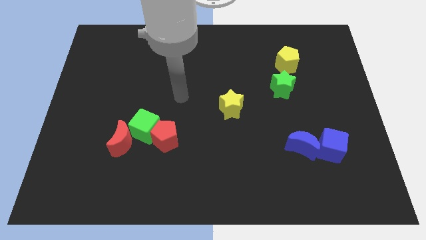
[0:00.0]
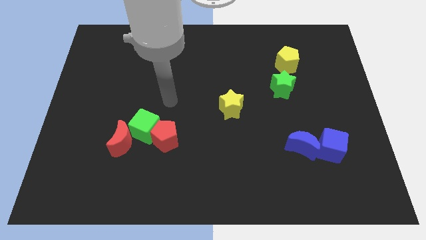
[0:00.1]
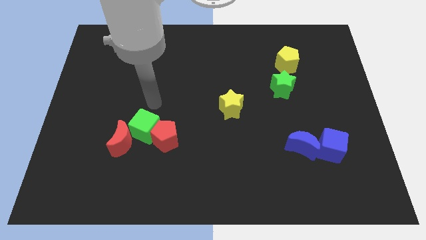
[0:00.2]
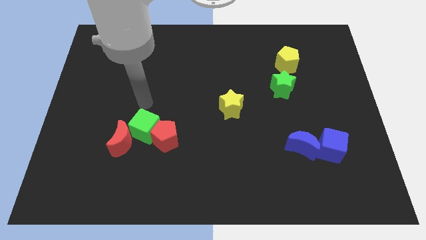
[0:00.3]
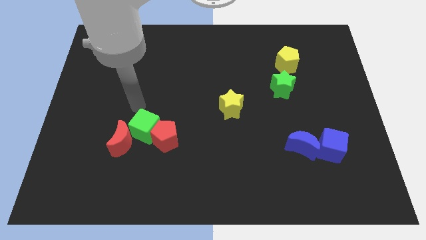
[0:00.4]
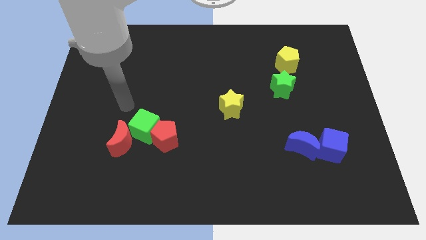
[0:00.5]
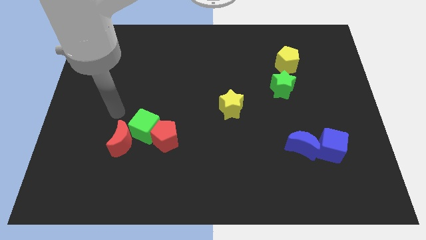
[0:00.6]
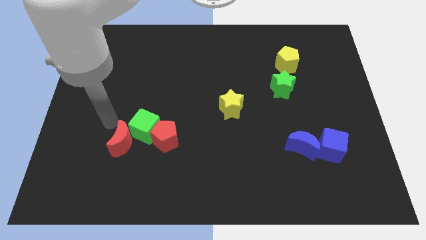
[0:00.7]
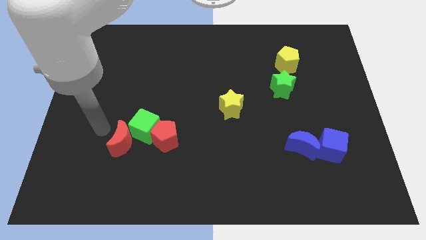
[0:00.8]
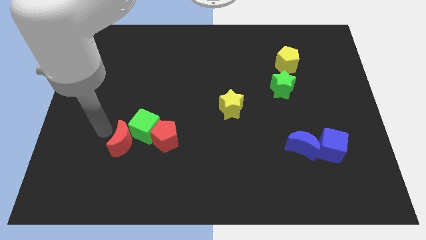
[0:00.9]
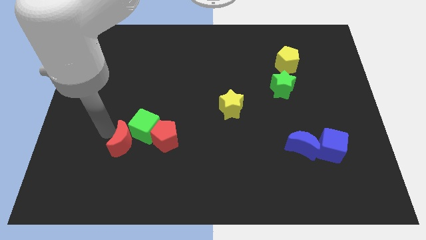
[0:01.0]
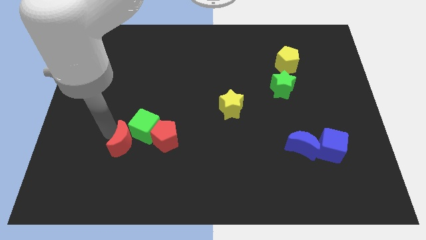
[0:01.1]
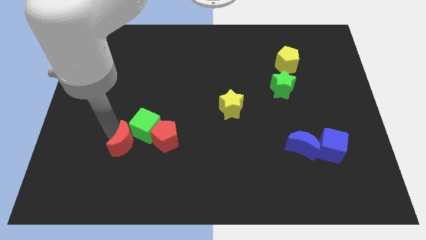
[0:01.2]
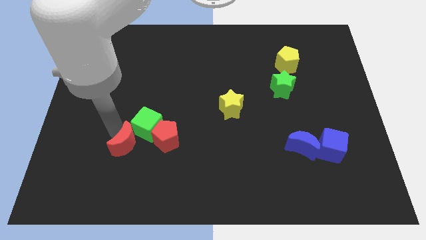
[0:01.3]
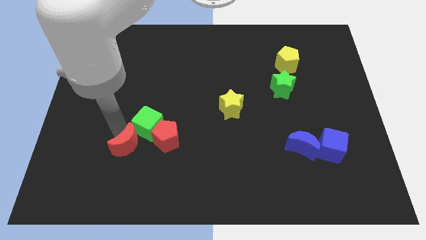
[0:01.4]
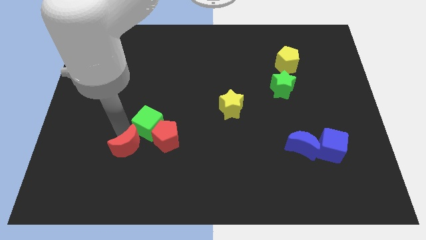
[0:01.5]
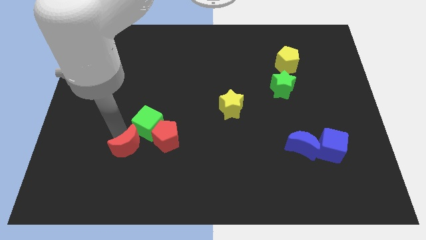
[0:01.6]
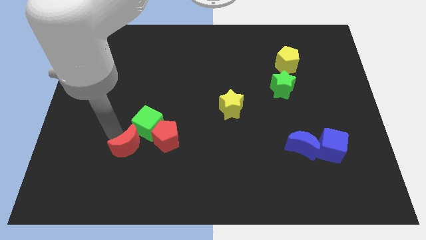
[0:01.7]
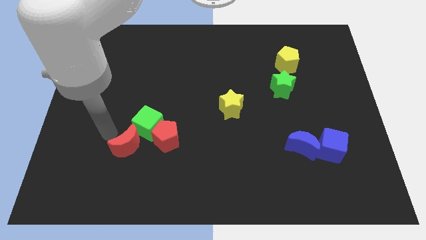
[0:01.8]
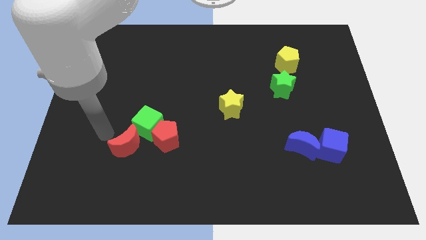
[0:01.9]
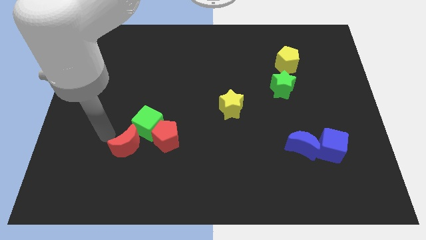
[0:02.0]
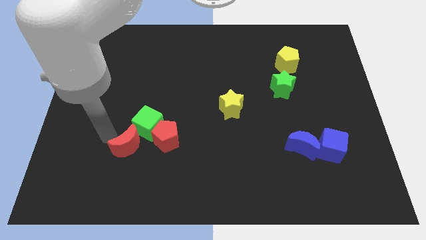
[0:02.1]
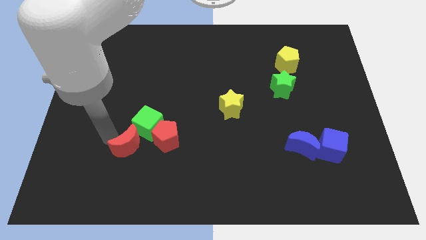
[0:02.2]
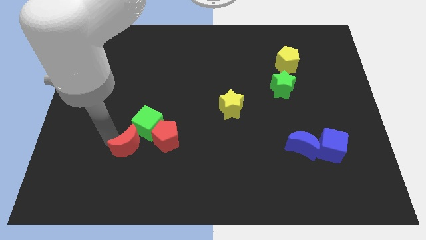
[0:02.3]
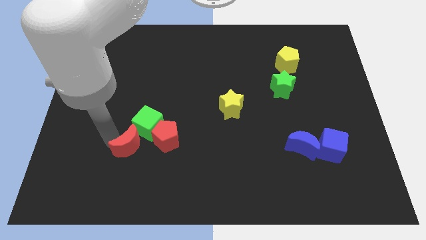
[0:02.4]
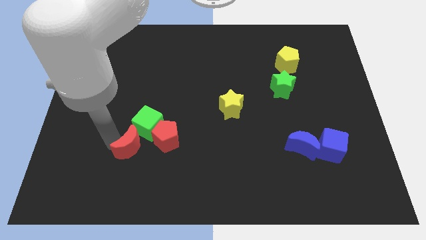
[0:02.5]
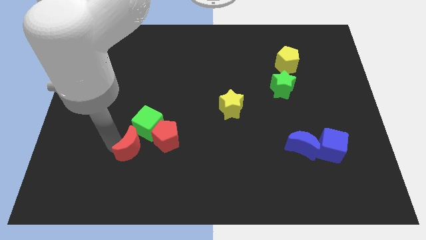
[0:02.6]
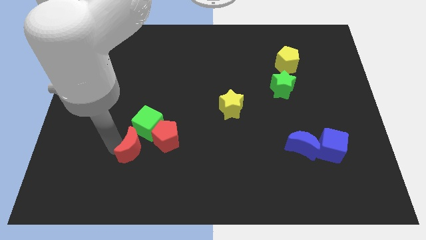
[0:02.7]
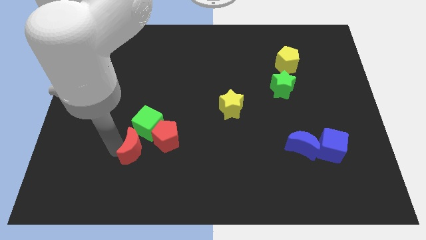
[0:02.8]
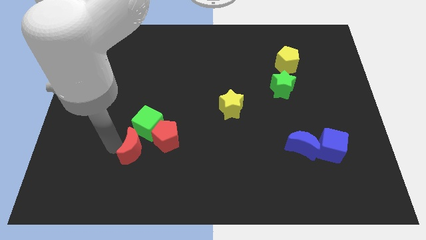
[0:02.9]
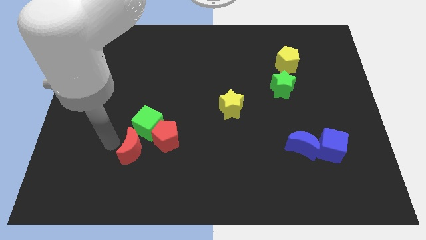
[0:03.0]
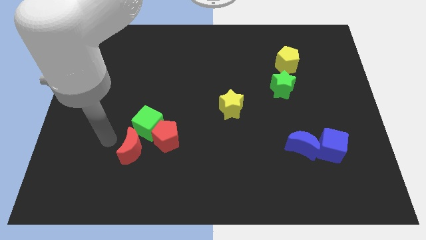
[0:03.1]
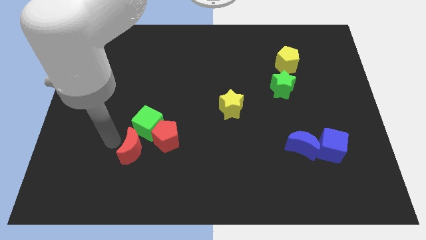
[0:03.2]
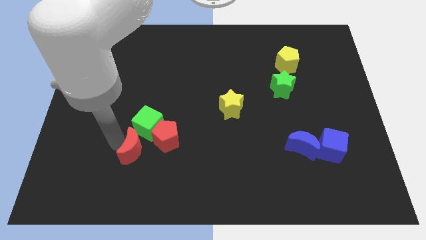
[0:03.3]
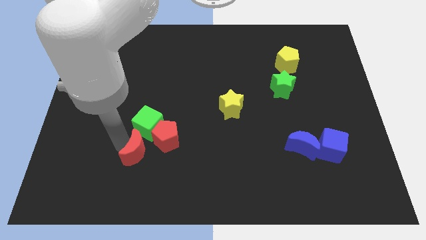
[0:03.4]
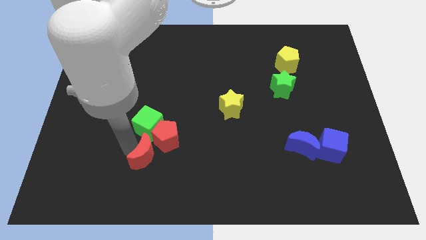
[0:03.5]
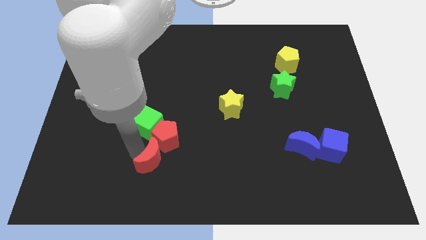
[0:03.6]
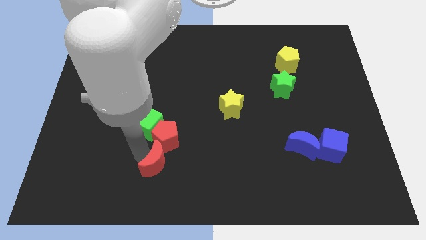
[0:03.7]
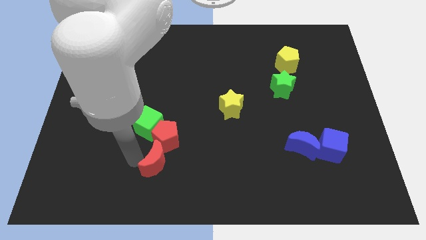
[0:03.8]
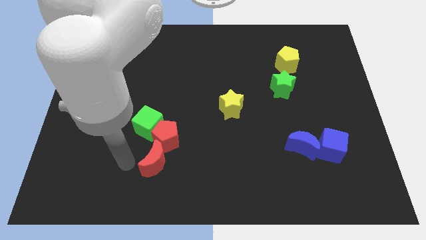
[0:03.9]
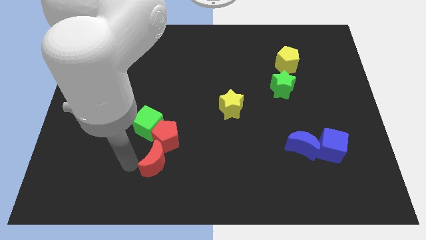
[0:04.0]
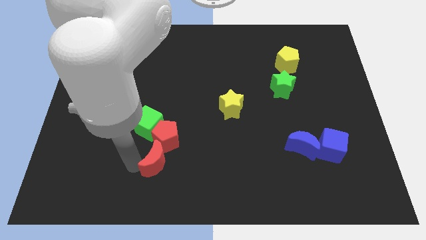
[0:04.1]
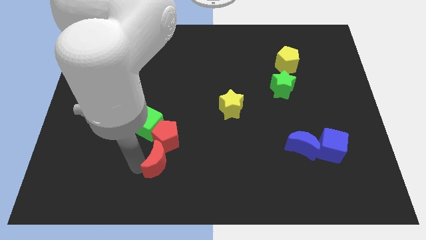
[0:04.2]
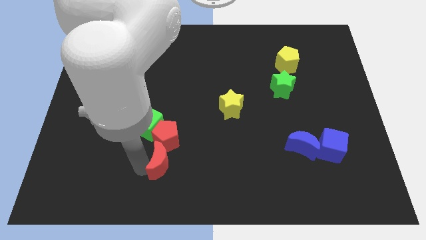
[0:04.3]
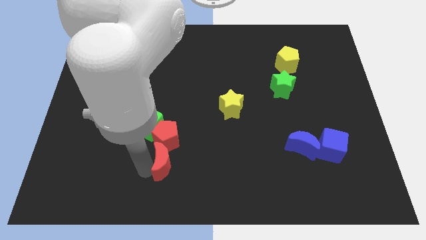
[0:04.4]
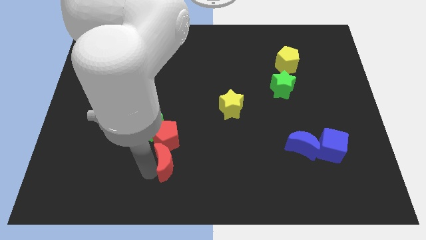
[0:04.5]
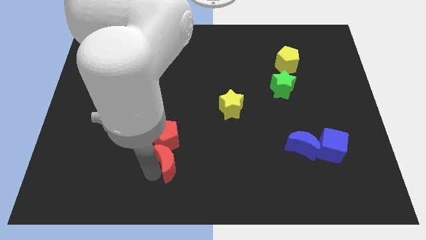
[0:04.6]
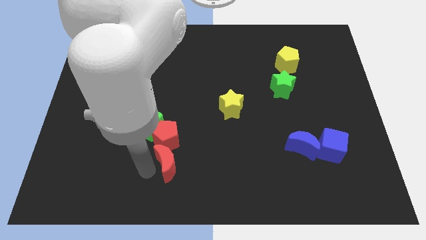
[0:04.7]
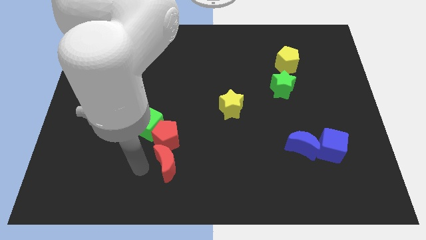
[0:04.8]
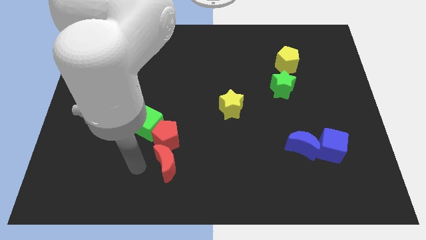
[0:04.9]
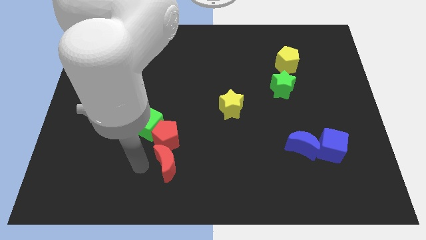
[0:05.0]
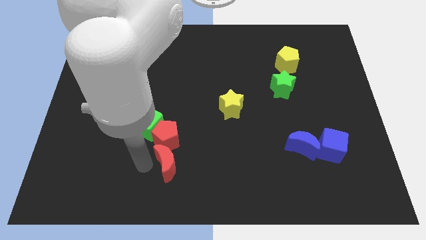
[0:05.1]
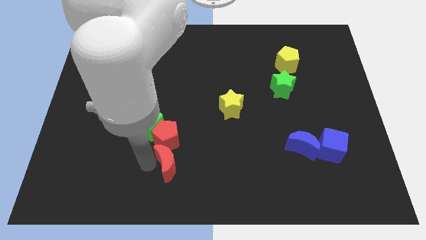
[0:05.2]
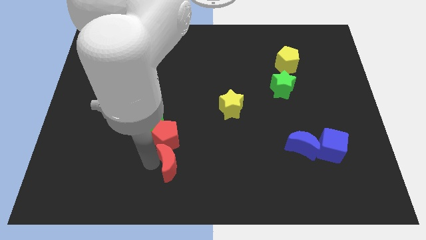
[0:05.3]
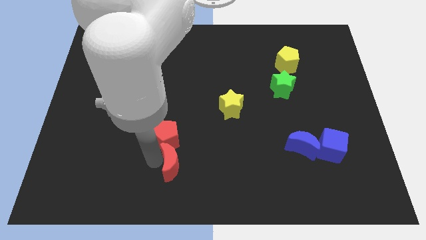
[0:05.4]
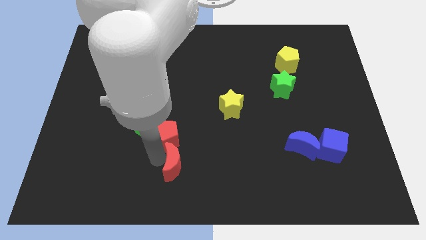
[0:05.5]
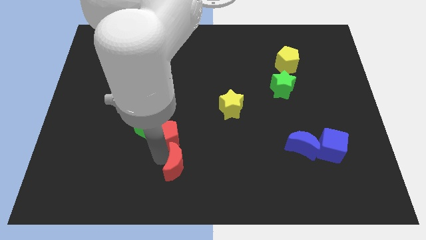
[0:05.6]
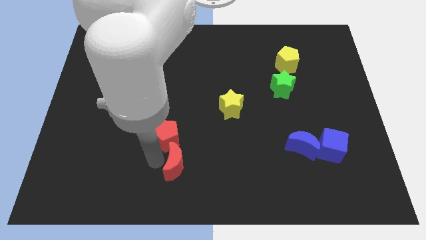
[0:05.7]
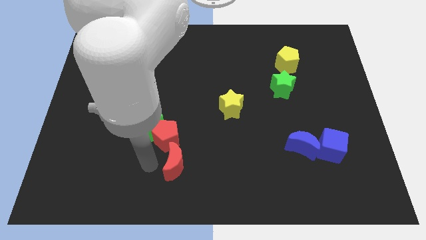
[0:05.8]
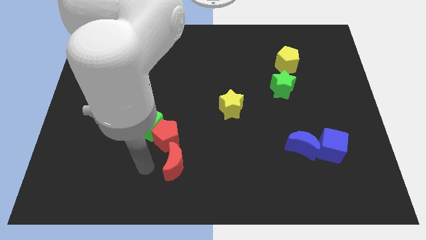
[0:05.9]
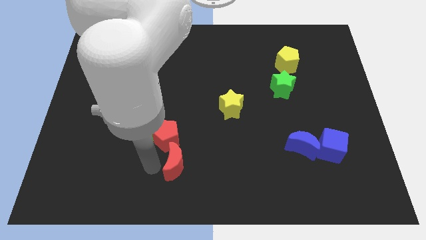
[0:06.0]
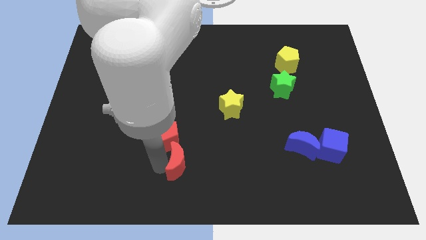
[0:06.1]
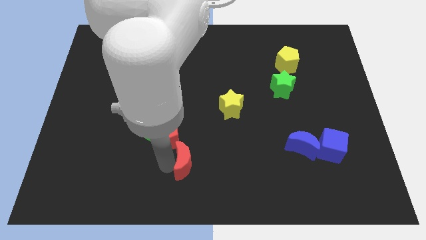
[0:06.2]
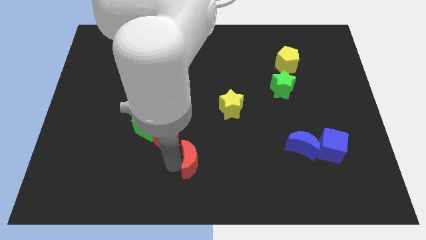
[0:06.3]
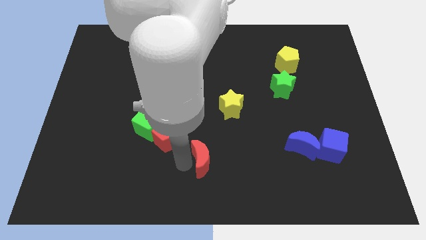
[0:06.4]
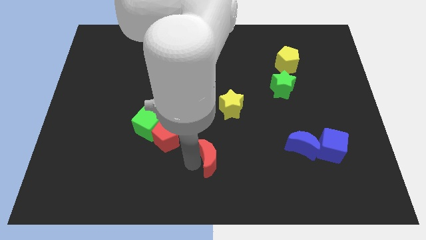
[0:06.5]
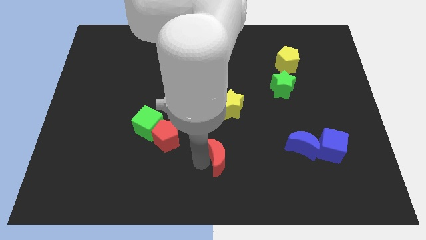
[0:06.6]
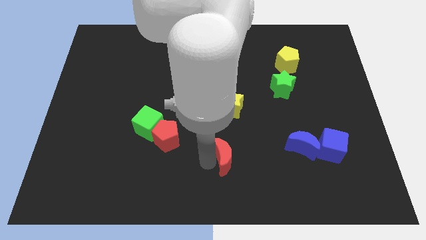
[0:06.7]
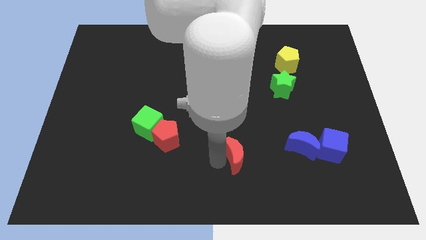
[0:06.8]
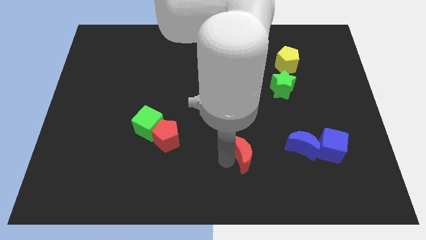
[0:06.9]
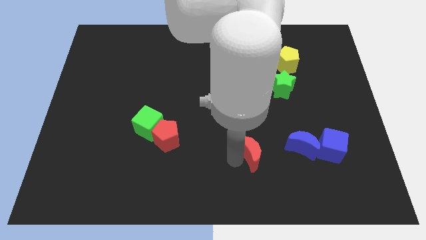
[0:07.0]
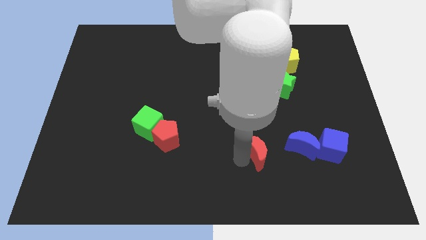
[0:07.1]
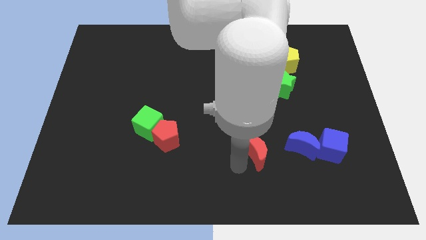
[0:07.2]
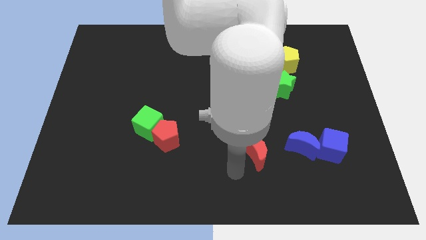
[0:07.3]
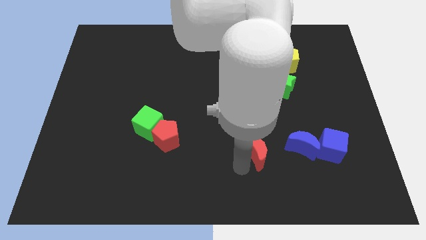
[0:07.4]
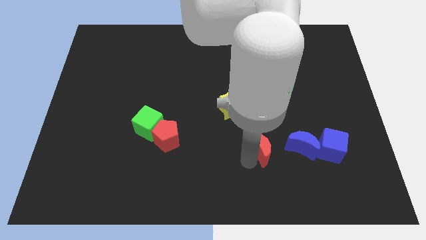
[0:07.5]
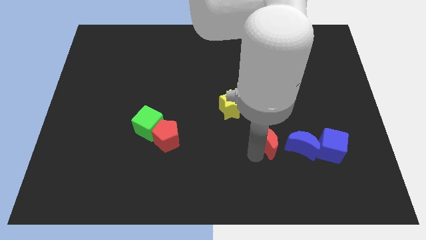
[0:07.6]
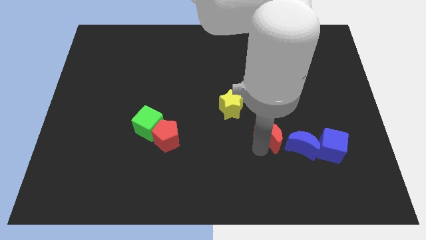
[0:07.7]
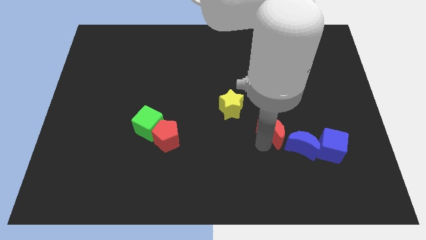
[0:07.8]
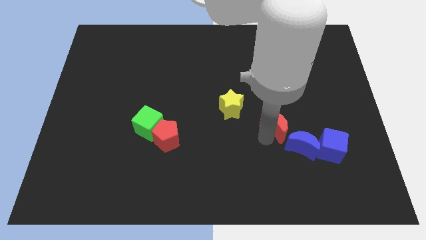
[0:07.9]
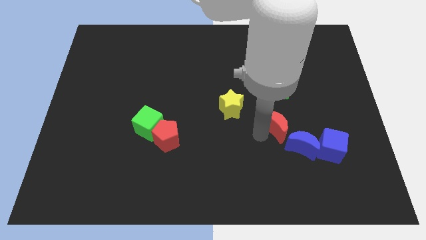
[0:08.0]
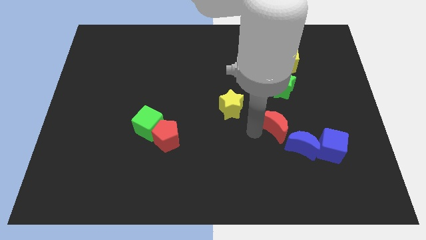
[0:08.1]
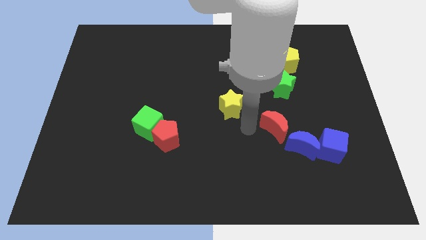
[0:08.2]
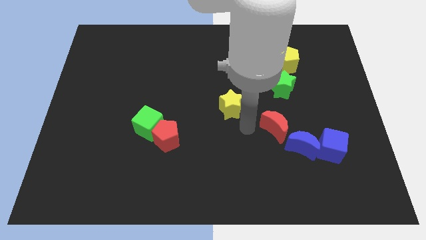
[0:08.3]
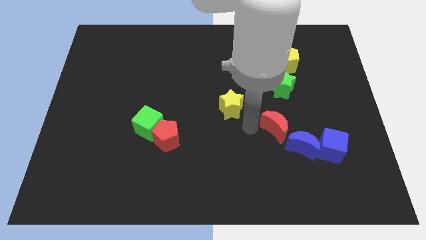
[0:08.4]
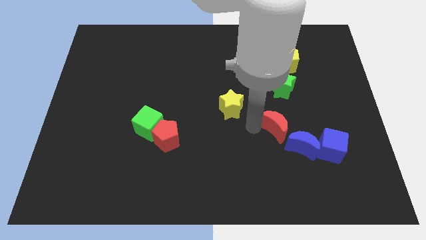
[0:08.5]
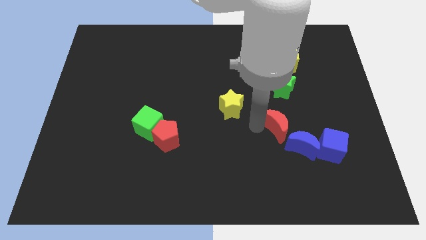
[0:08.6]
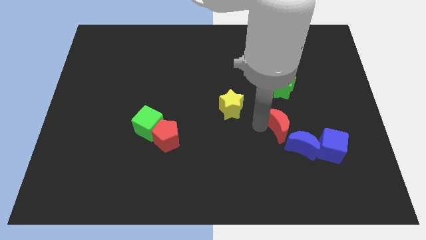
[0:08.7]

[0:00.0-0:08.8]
move the red moon to the top left side of the blue cube
